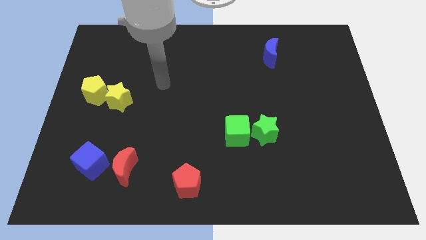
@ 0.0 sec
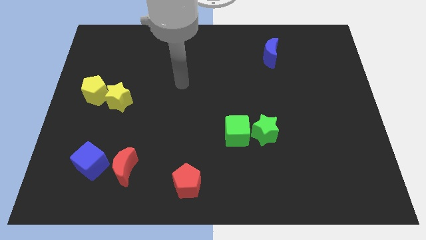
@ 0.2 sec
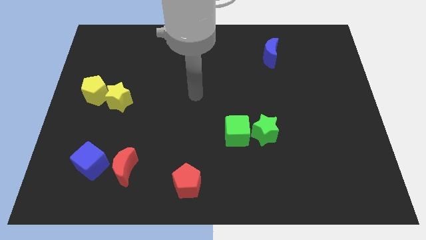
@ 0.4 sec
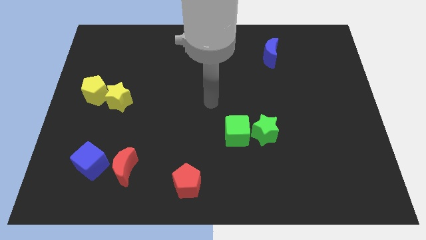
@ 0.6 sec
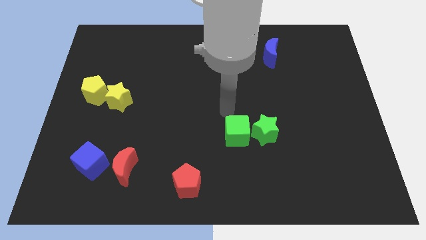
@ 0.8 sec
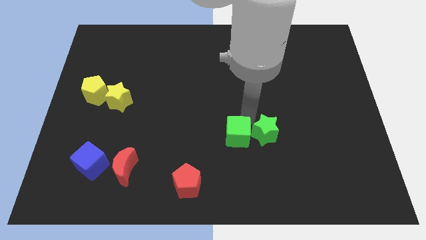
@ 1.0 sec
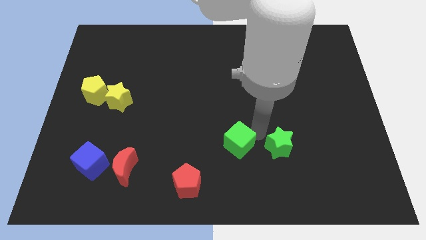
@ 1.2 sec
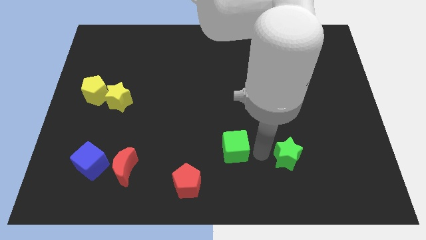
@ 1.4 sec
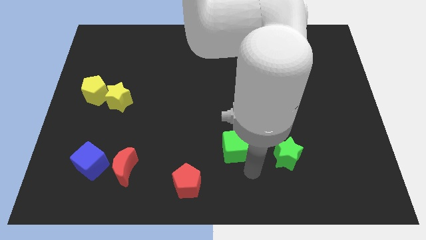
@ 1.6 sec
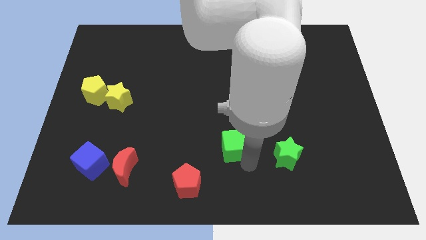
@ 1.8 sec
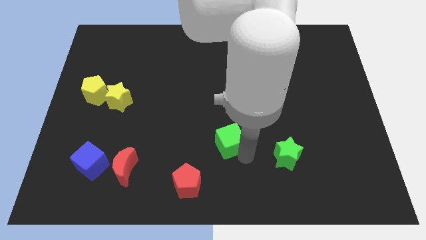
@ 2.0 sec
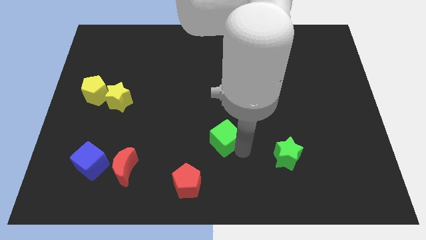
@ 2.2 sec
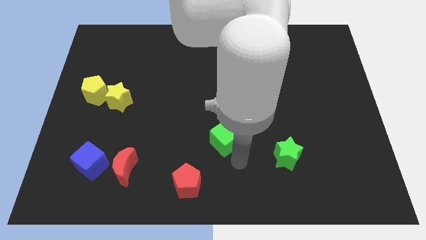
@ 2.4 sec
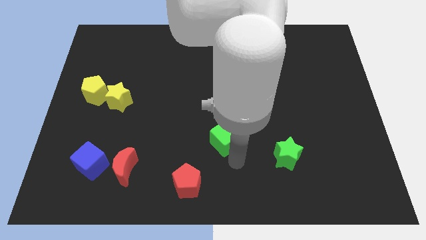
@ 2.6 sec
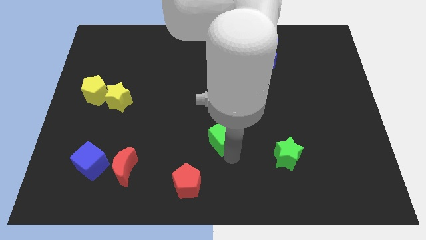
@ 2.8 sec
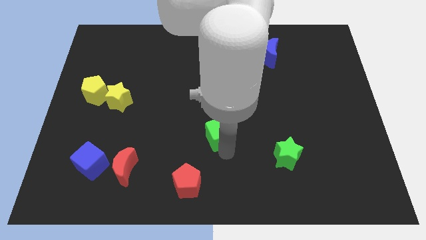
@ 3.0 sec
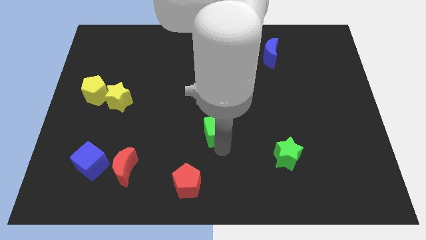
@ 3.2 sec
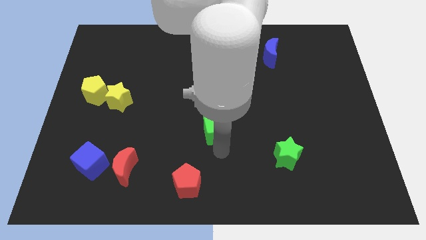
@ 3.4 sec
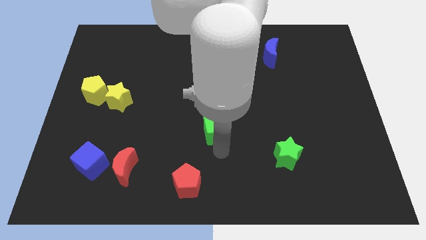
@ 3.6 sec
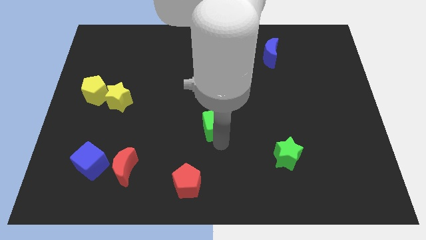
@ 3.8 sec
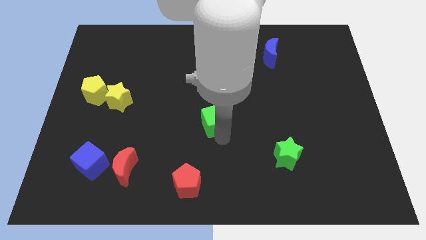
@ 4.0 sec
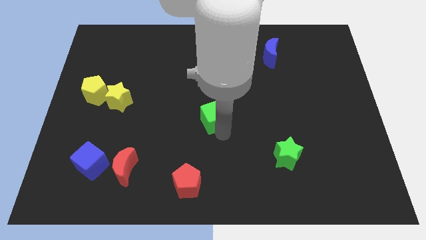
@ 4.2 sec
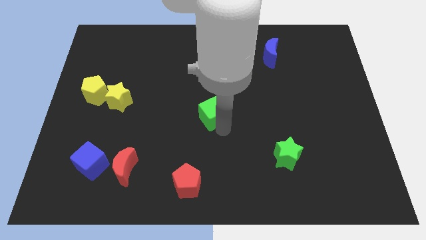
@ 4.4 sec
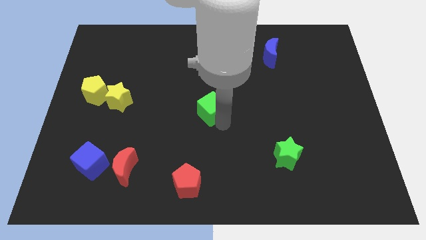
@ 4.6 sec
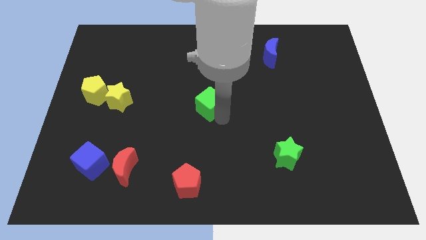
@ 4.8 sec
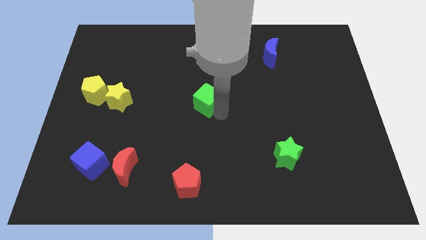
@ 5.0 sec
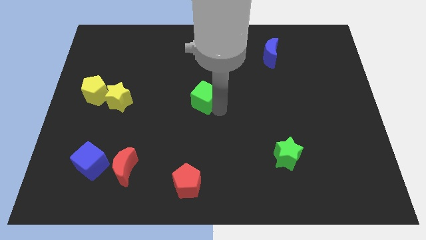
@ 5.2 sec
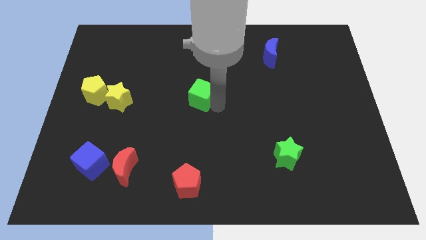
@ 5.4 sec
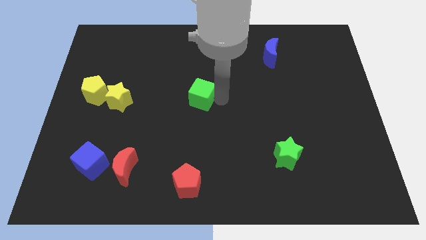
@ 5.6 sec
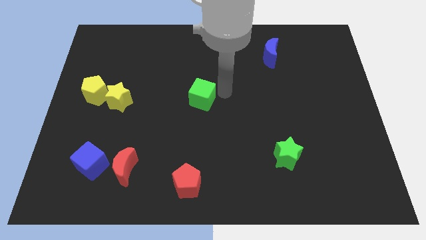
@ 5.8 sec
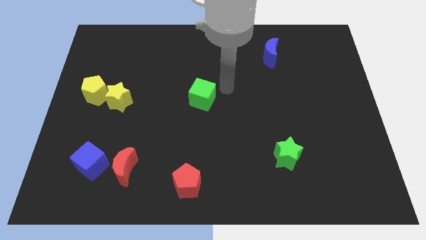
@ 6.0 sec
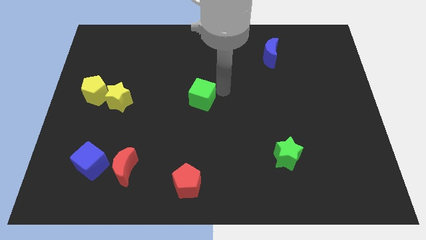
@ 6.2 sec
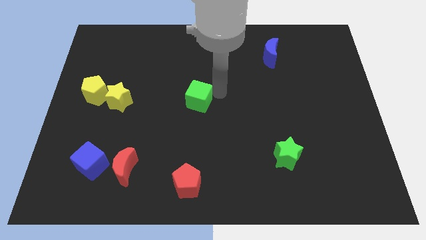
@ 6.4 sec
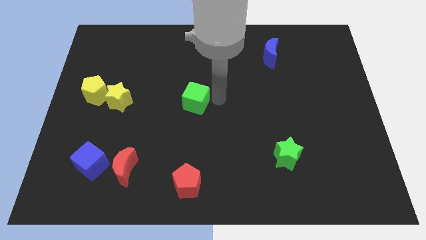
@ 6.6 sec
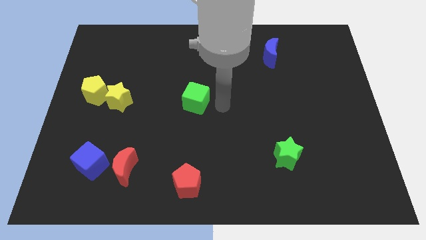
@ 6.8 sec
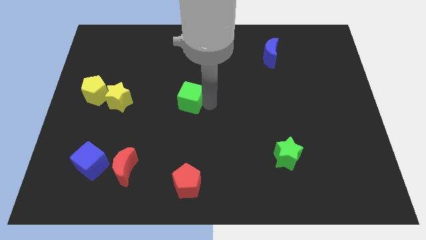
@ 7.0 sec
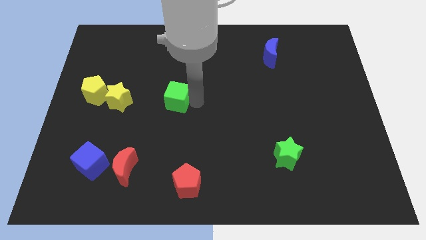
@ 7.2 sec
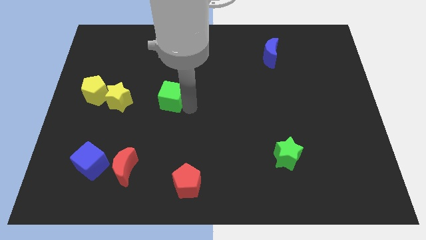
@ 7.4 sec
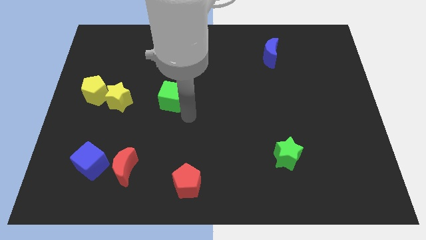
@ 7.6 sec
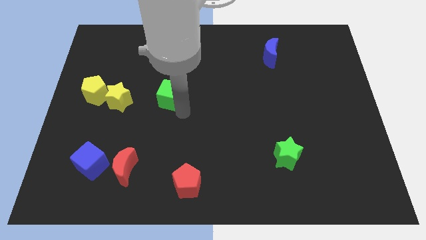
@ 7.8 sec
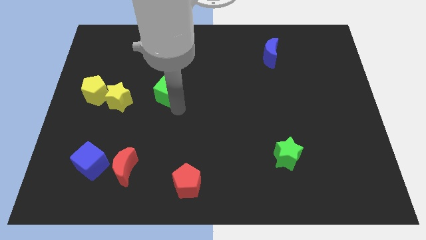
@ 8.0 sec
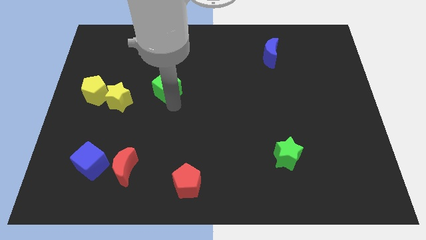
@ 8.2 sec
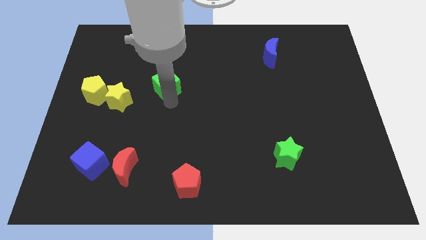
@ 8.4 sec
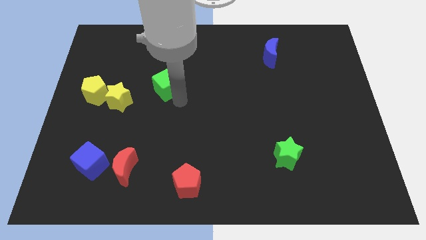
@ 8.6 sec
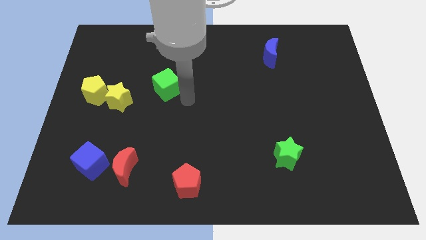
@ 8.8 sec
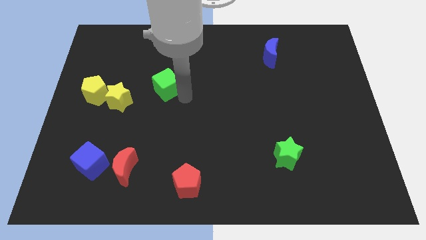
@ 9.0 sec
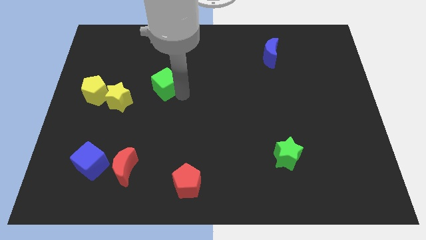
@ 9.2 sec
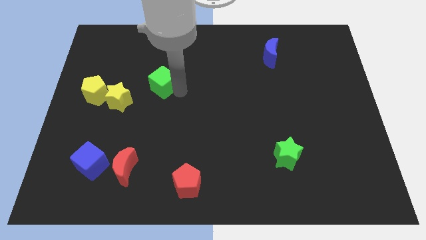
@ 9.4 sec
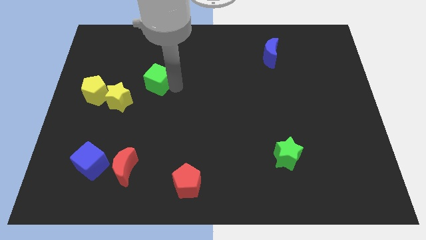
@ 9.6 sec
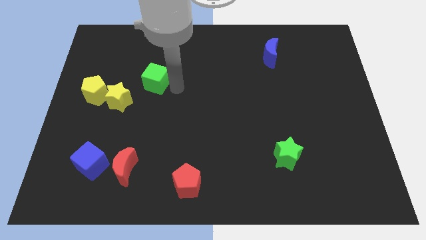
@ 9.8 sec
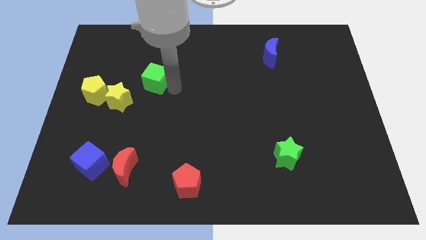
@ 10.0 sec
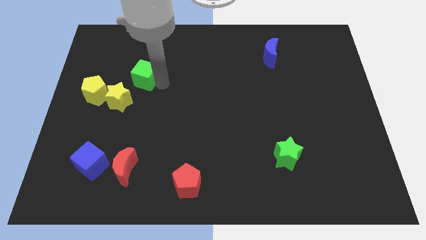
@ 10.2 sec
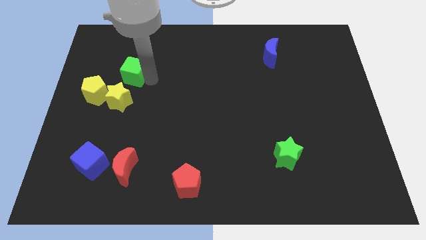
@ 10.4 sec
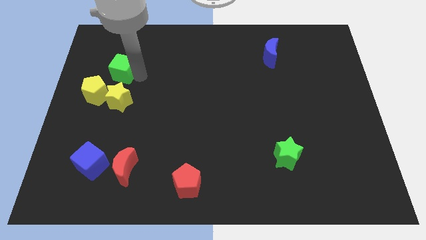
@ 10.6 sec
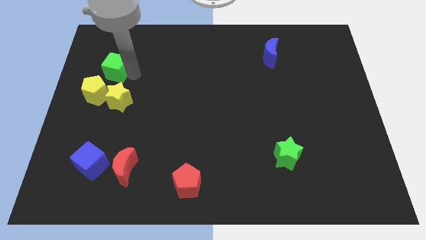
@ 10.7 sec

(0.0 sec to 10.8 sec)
move the green cube above the yellow pentagon

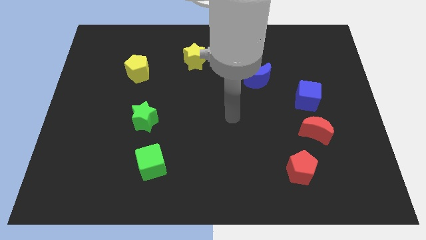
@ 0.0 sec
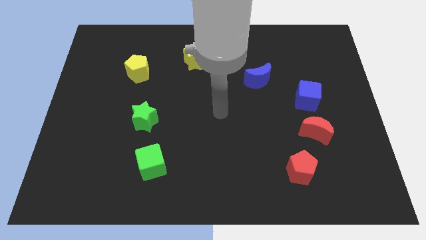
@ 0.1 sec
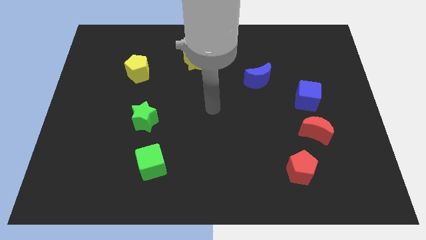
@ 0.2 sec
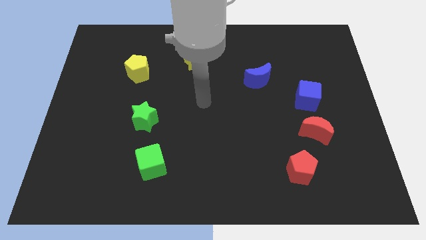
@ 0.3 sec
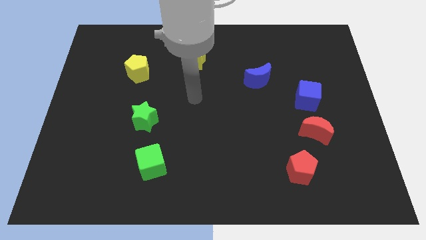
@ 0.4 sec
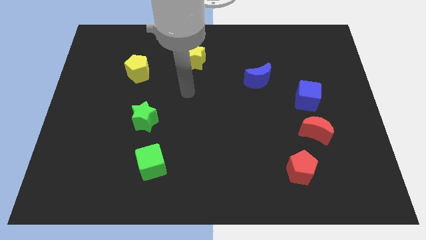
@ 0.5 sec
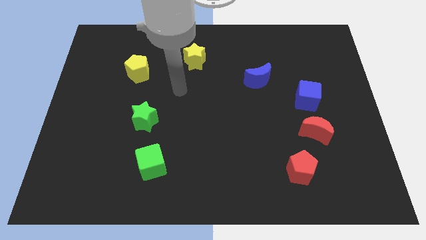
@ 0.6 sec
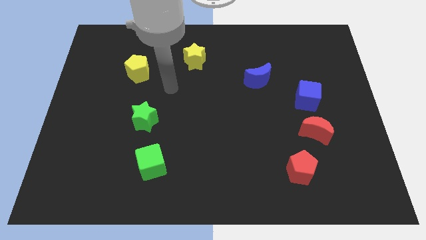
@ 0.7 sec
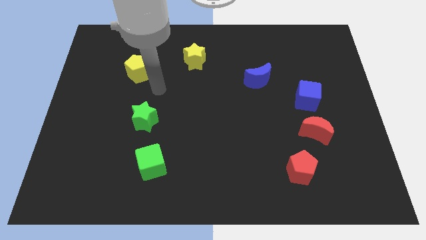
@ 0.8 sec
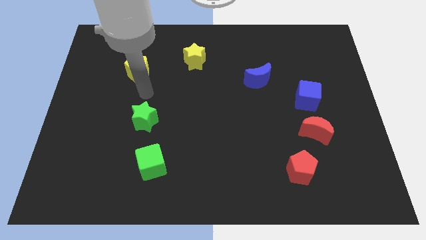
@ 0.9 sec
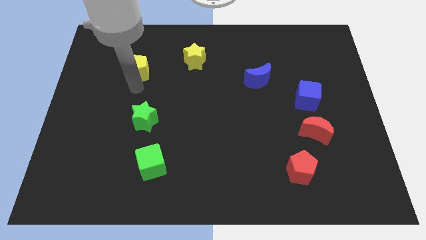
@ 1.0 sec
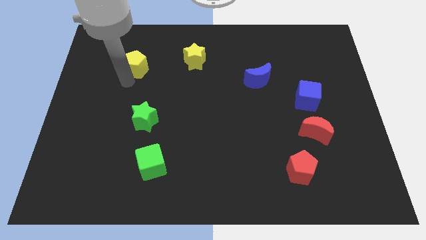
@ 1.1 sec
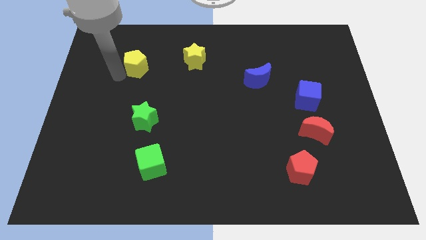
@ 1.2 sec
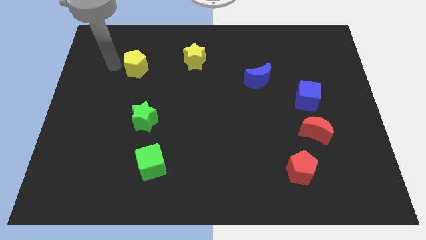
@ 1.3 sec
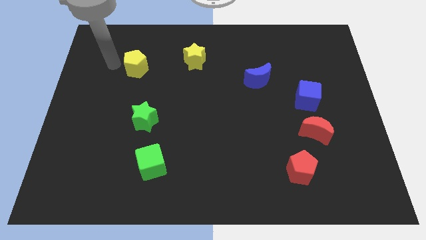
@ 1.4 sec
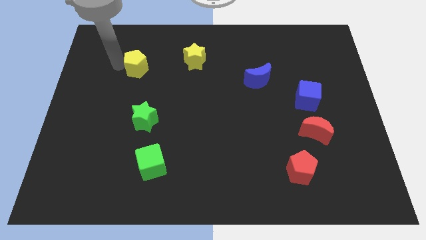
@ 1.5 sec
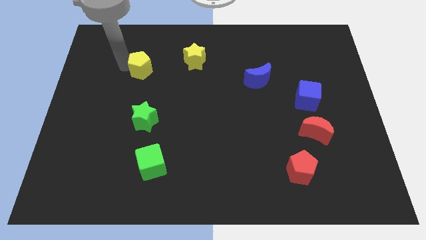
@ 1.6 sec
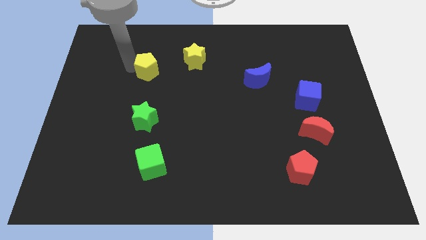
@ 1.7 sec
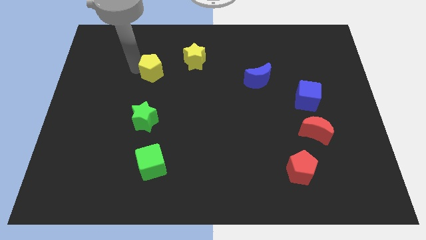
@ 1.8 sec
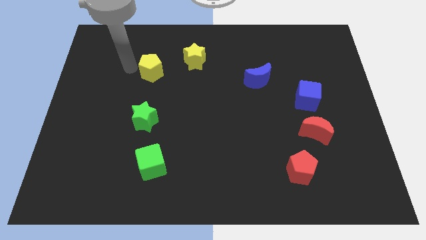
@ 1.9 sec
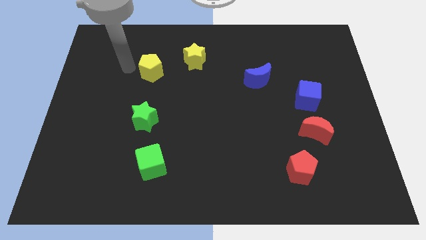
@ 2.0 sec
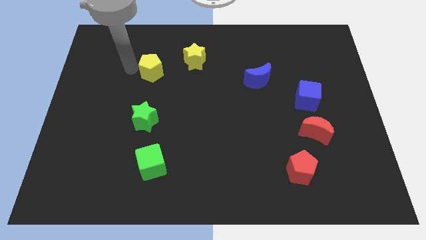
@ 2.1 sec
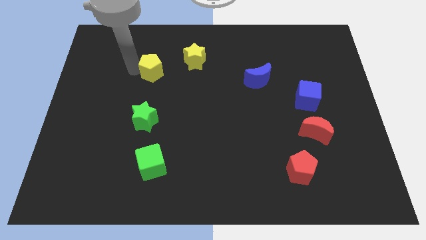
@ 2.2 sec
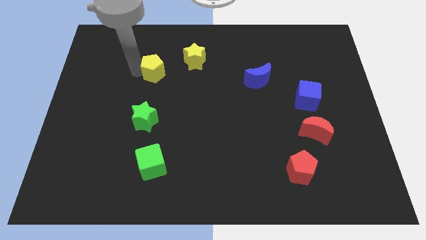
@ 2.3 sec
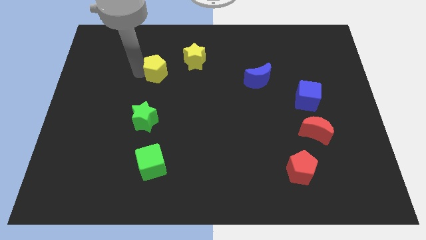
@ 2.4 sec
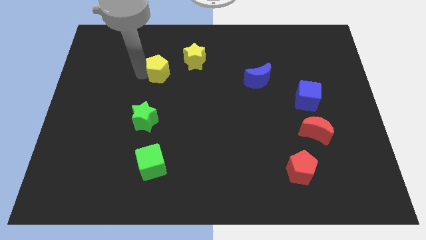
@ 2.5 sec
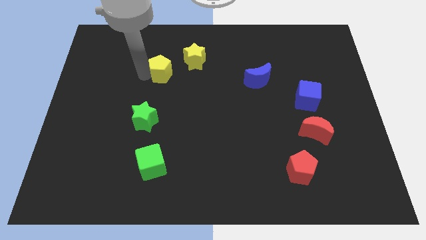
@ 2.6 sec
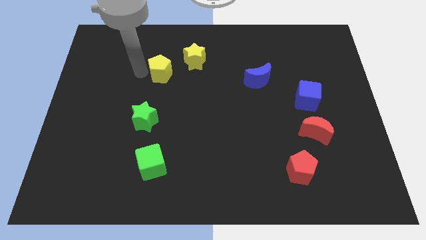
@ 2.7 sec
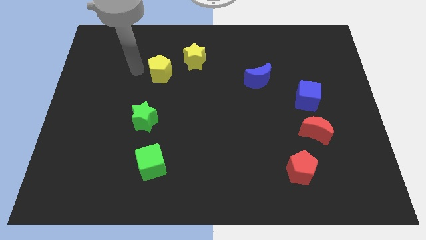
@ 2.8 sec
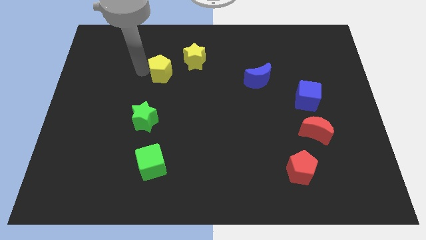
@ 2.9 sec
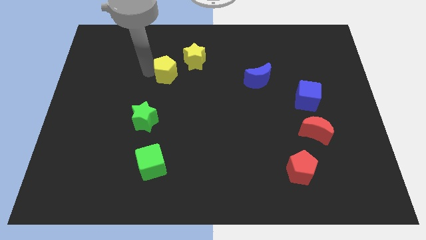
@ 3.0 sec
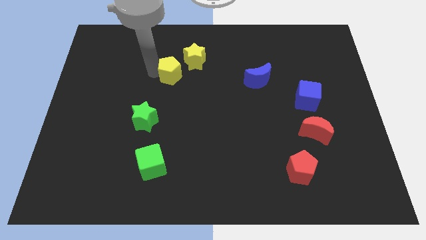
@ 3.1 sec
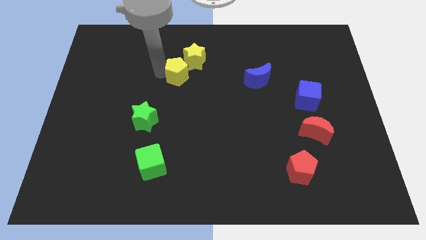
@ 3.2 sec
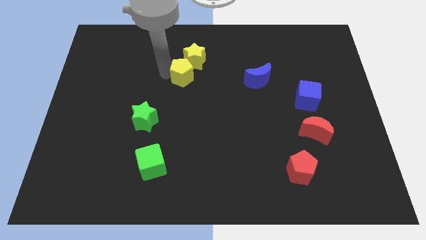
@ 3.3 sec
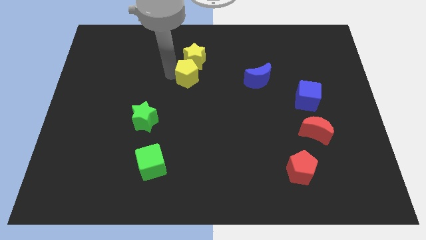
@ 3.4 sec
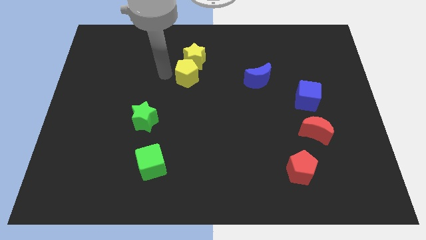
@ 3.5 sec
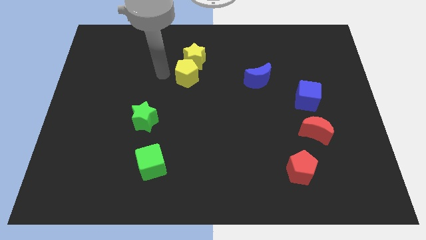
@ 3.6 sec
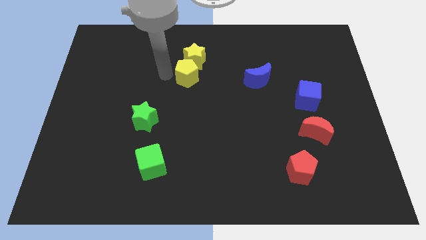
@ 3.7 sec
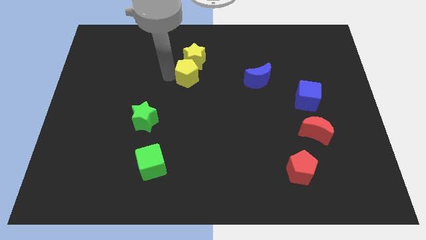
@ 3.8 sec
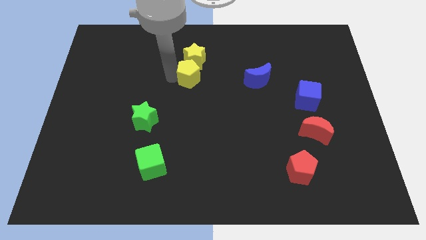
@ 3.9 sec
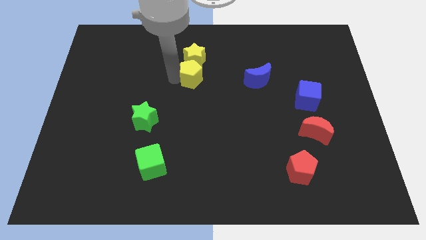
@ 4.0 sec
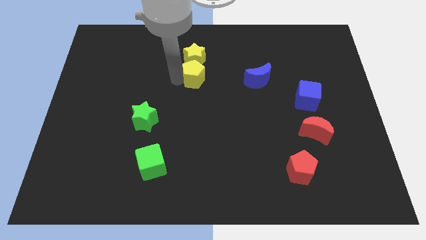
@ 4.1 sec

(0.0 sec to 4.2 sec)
move the yellow pentagon left of the blue moon
